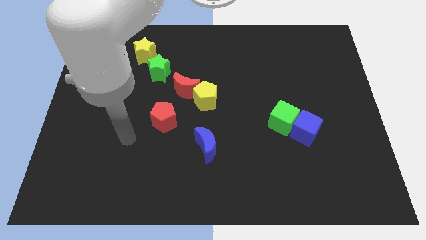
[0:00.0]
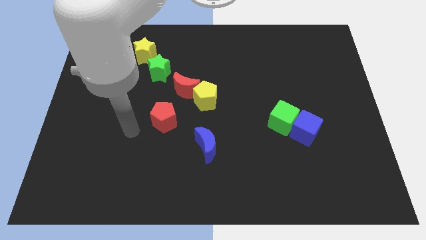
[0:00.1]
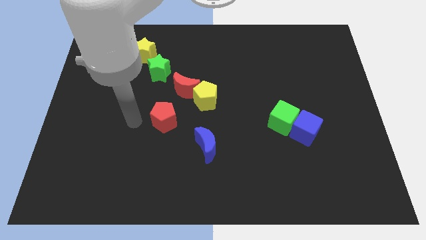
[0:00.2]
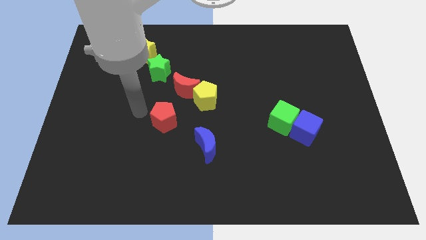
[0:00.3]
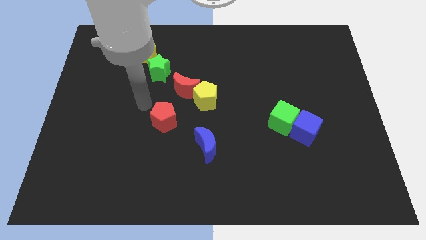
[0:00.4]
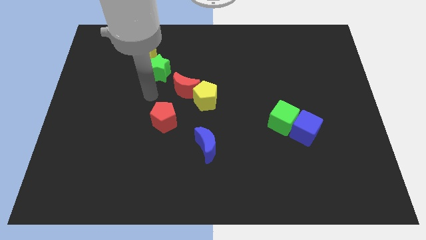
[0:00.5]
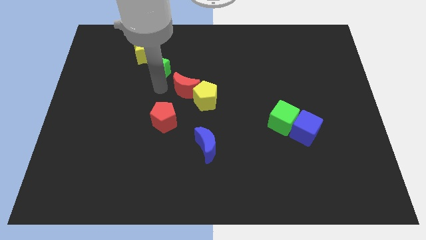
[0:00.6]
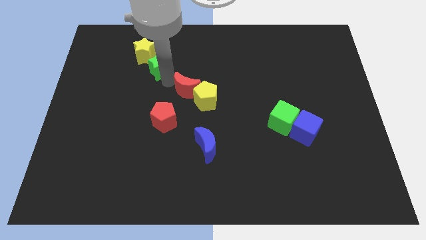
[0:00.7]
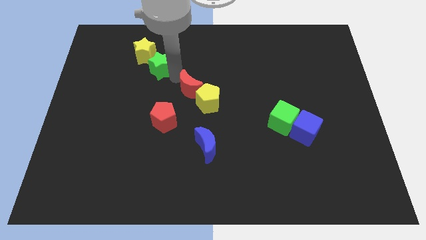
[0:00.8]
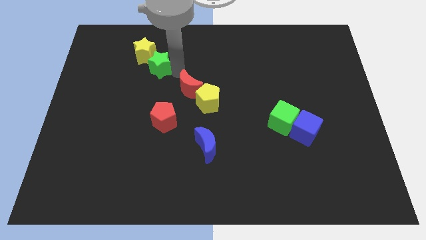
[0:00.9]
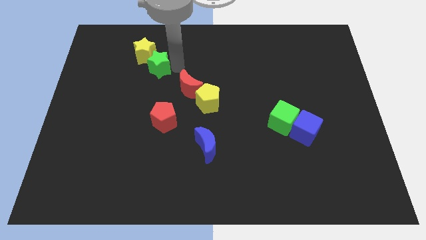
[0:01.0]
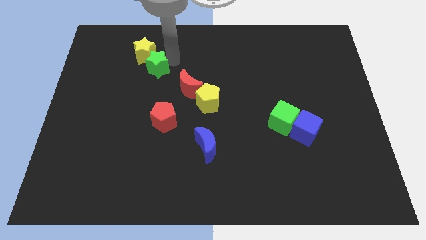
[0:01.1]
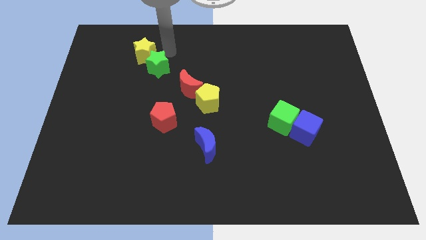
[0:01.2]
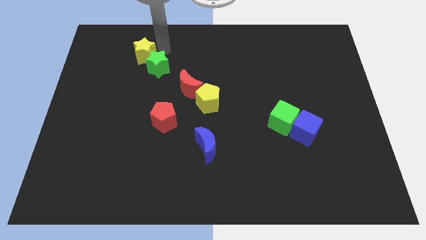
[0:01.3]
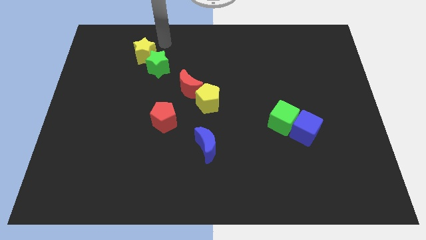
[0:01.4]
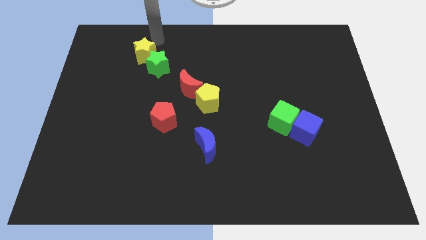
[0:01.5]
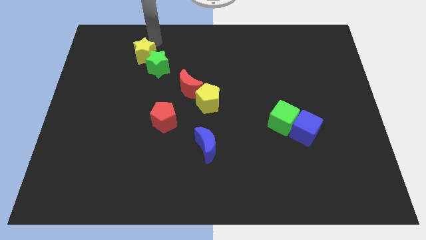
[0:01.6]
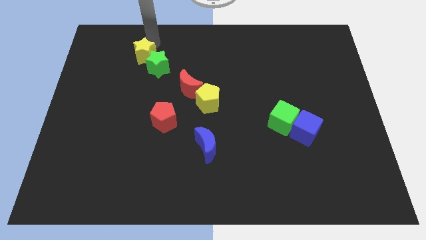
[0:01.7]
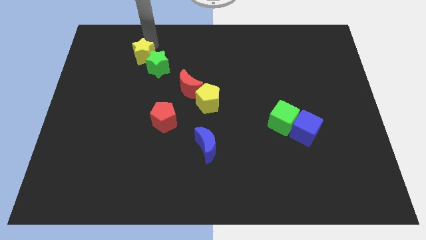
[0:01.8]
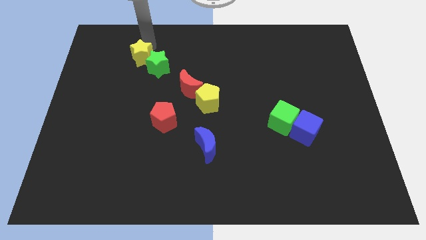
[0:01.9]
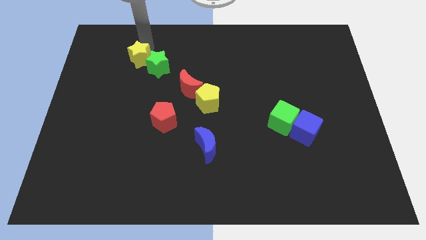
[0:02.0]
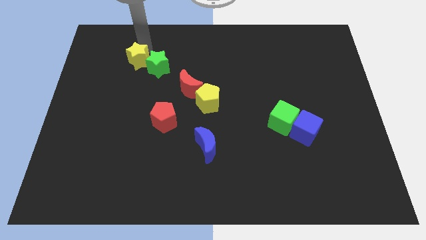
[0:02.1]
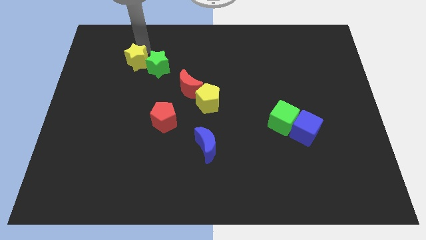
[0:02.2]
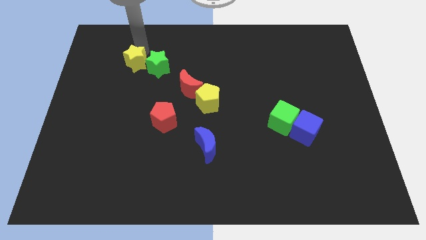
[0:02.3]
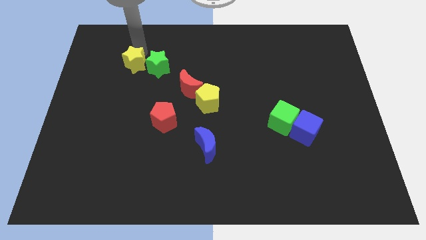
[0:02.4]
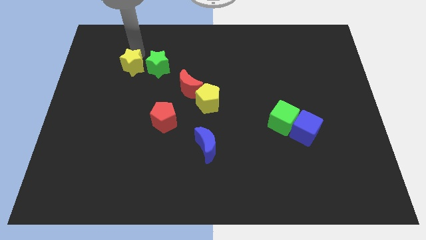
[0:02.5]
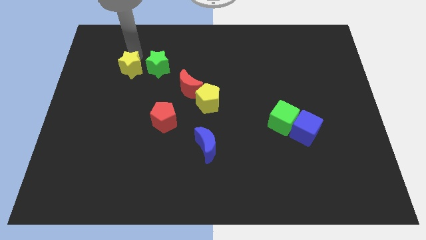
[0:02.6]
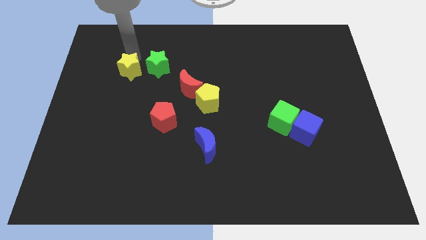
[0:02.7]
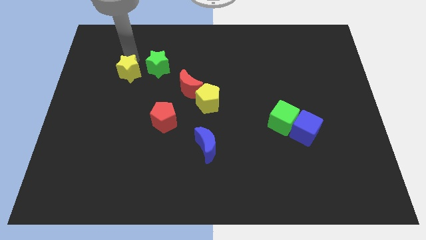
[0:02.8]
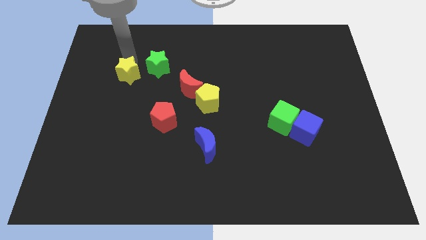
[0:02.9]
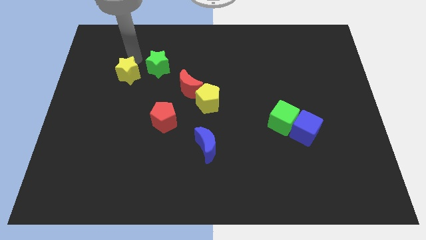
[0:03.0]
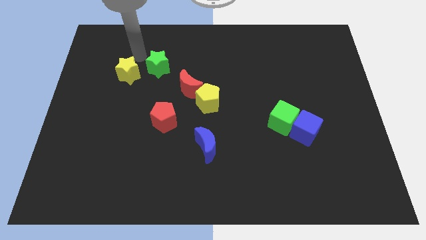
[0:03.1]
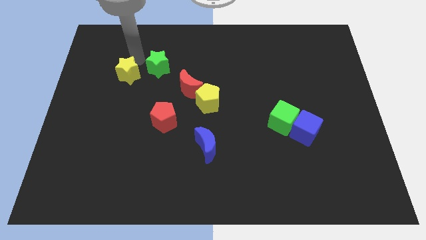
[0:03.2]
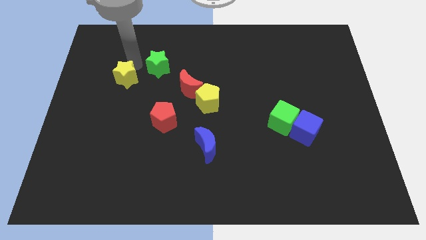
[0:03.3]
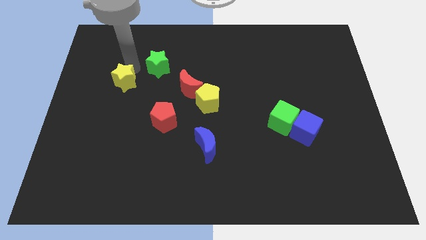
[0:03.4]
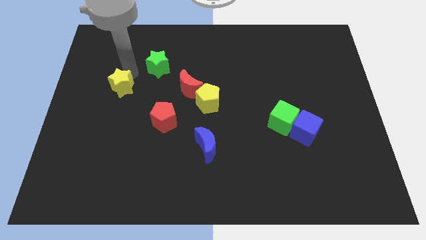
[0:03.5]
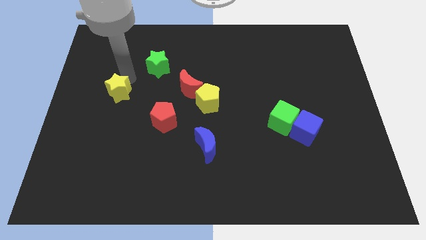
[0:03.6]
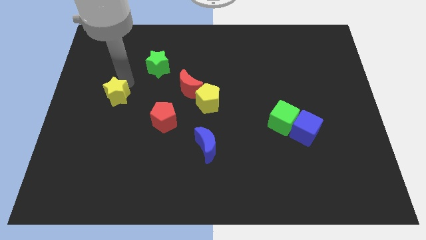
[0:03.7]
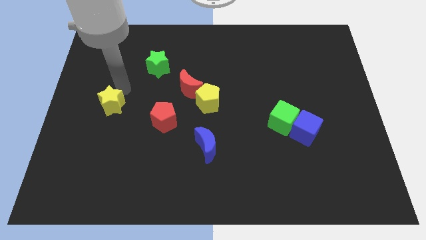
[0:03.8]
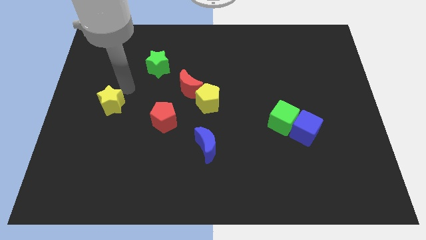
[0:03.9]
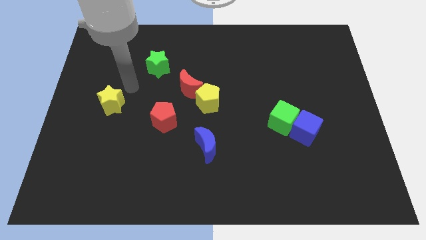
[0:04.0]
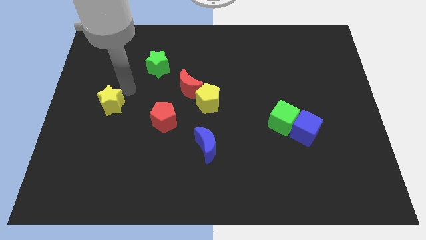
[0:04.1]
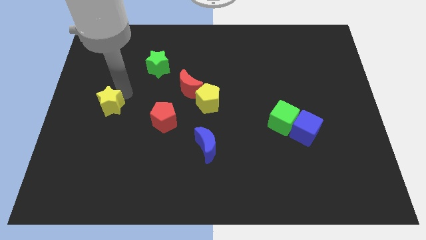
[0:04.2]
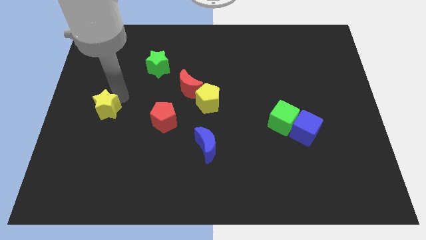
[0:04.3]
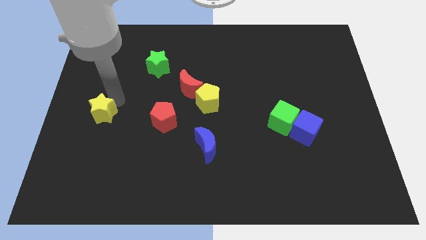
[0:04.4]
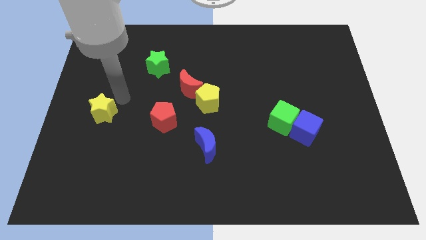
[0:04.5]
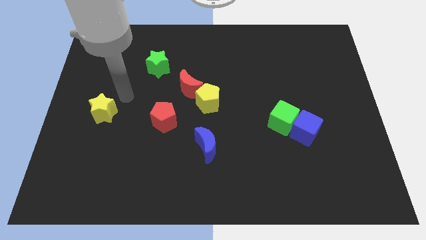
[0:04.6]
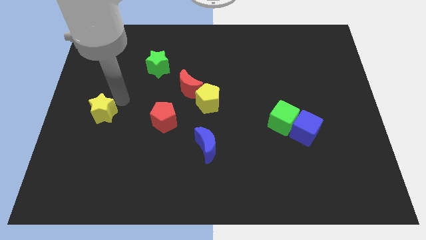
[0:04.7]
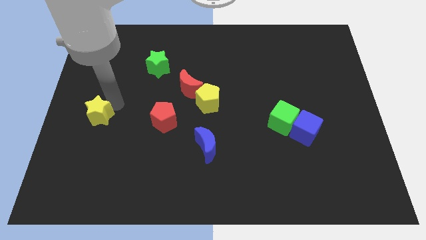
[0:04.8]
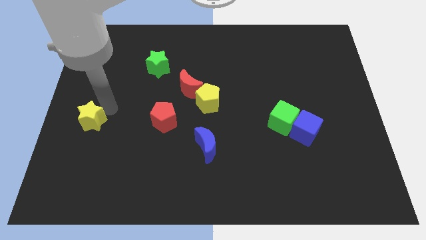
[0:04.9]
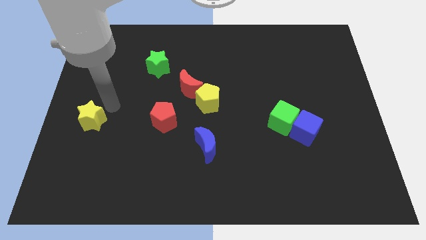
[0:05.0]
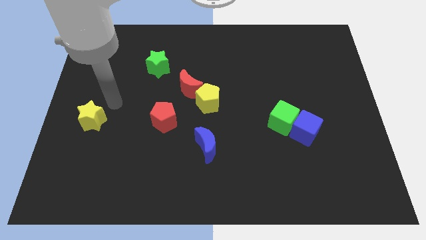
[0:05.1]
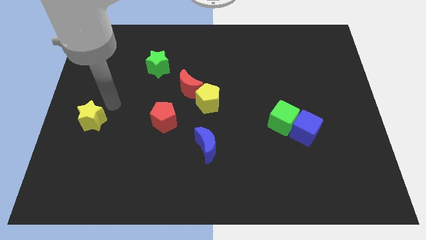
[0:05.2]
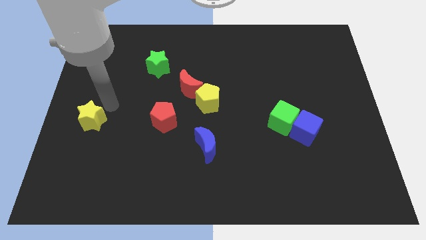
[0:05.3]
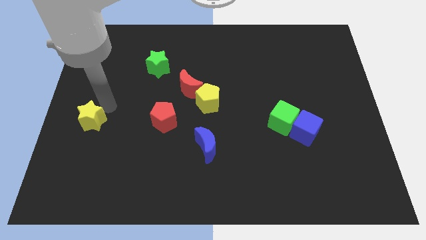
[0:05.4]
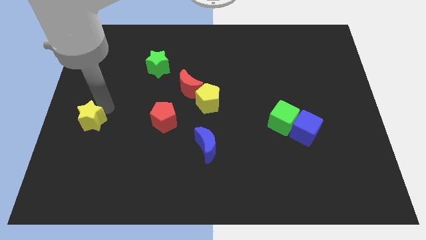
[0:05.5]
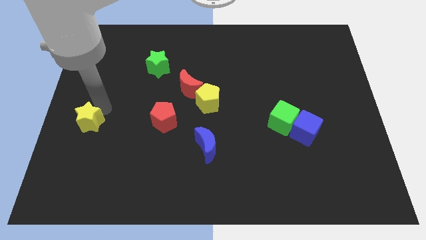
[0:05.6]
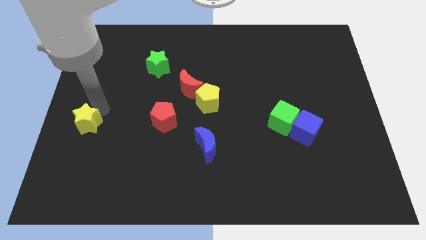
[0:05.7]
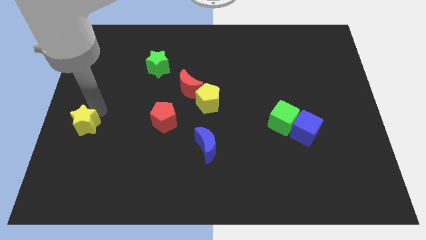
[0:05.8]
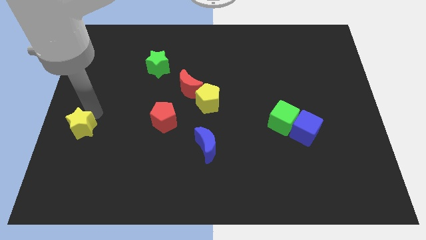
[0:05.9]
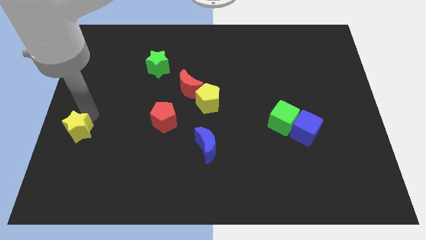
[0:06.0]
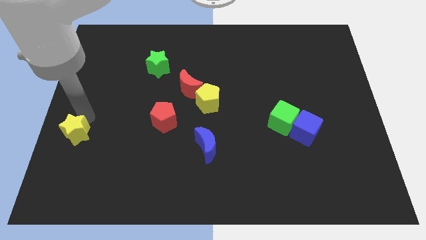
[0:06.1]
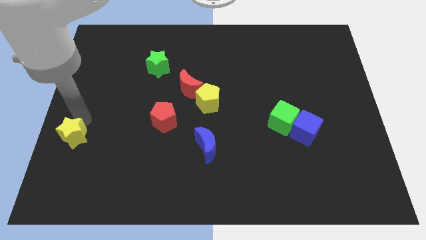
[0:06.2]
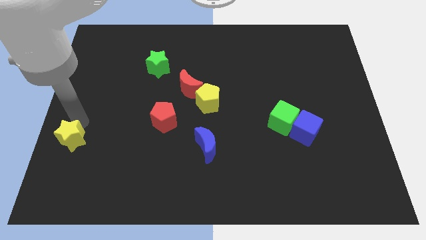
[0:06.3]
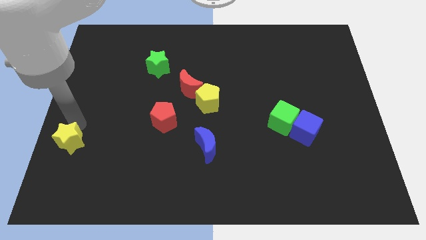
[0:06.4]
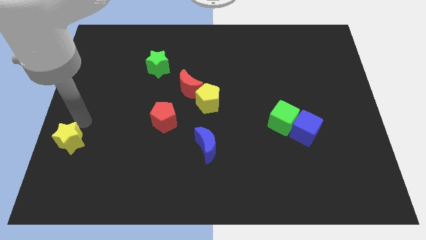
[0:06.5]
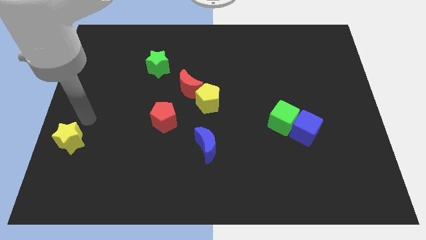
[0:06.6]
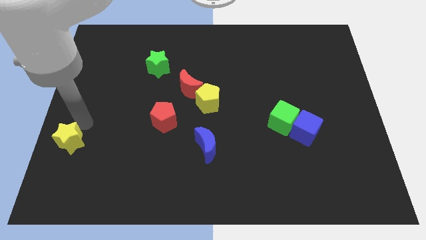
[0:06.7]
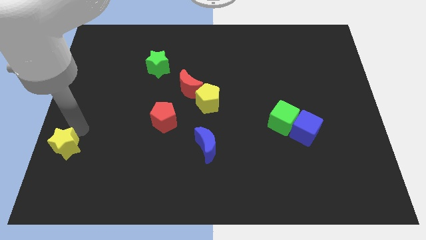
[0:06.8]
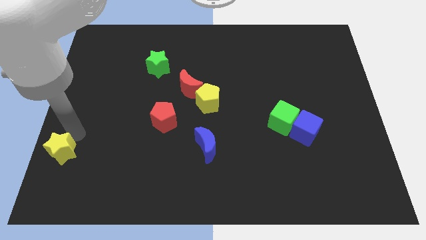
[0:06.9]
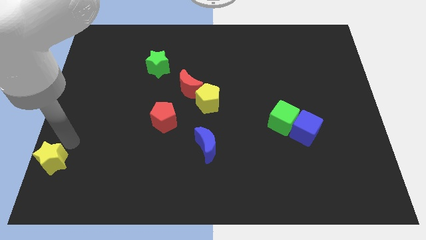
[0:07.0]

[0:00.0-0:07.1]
push the yellow star to the bottom left corner
